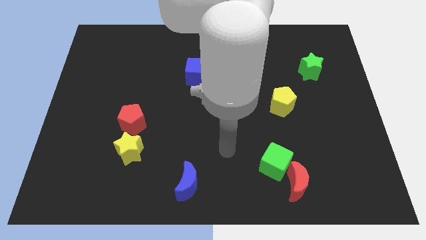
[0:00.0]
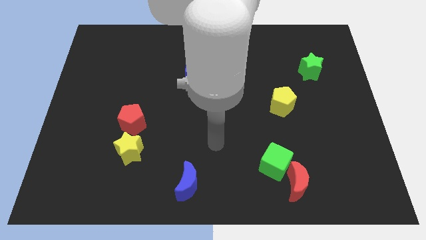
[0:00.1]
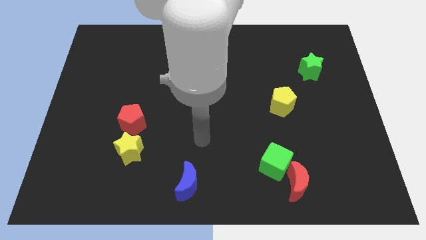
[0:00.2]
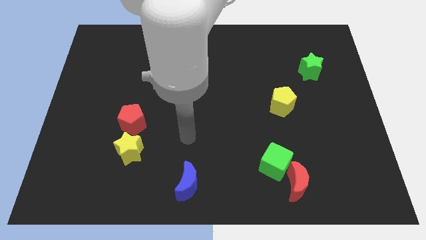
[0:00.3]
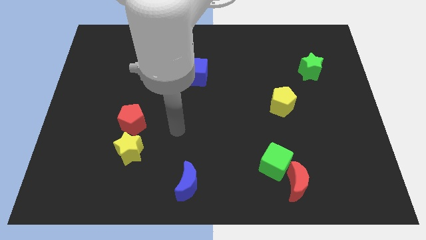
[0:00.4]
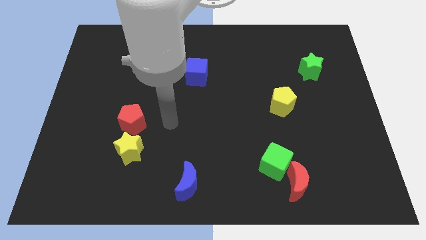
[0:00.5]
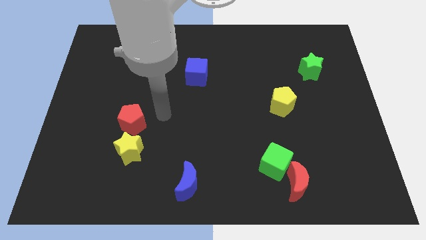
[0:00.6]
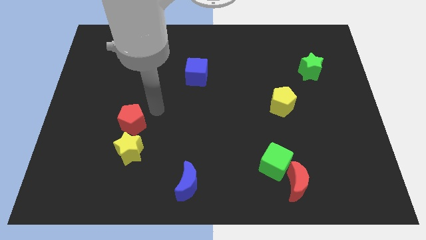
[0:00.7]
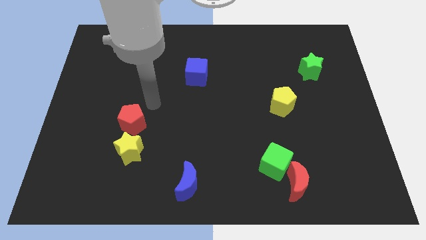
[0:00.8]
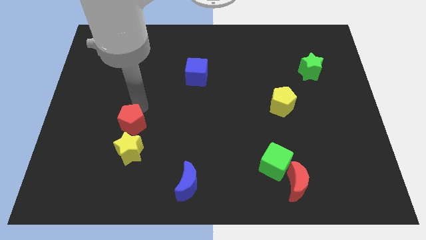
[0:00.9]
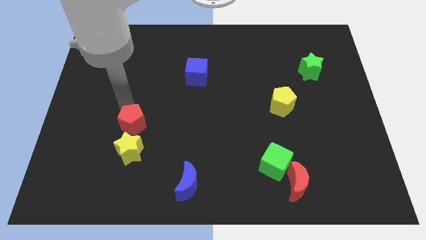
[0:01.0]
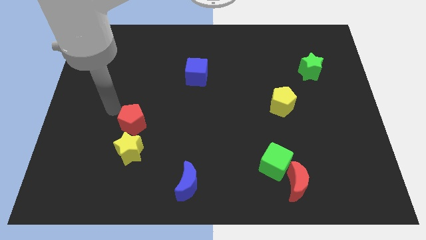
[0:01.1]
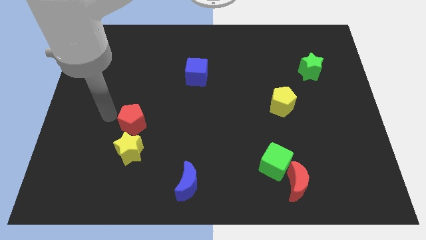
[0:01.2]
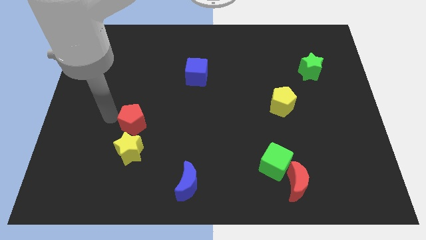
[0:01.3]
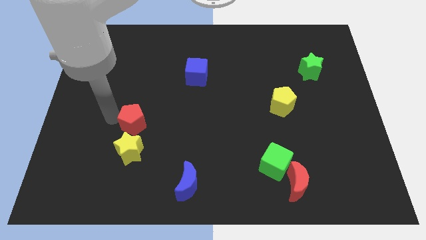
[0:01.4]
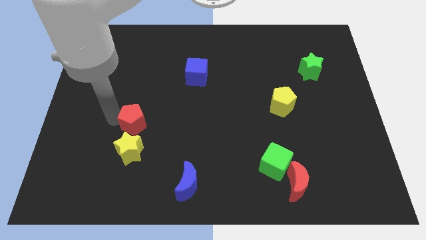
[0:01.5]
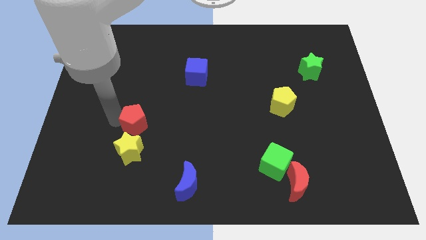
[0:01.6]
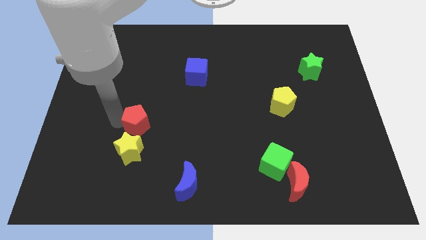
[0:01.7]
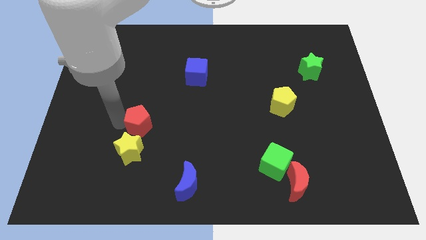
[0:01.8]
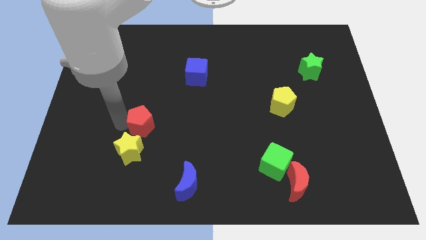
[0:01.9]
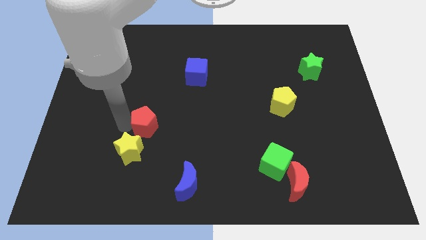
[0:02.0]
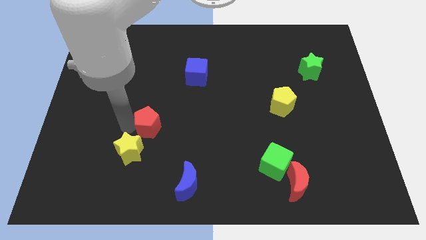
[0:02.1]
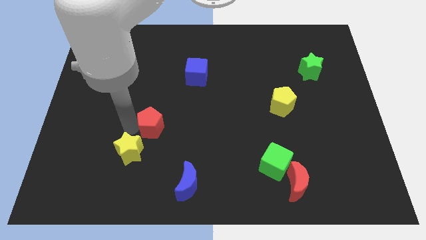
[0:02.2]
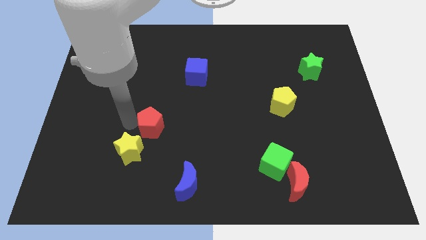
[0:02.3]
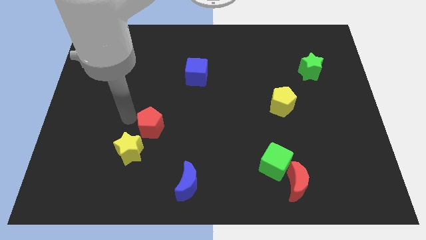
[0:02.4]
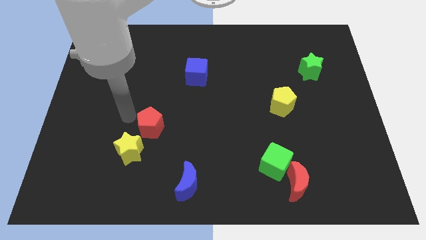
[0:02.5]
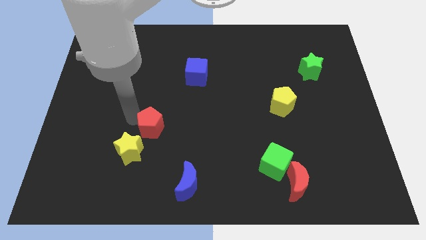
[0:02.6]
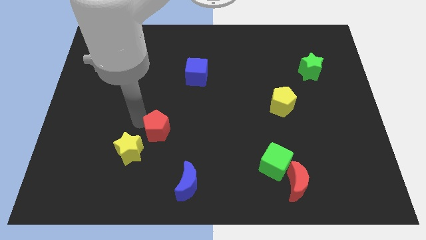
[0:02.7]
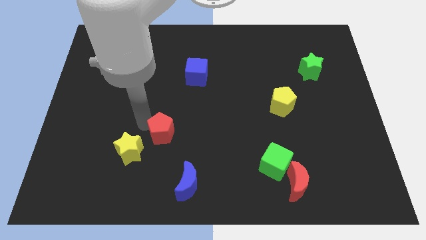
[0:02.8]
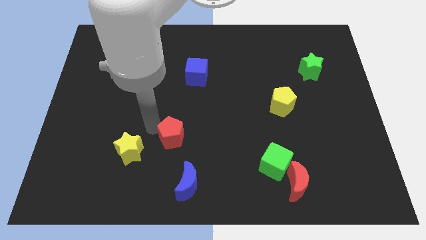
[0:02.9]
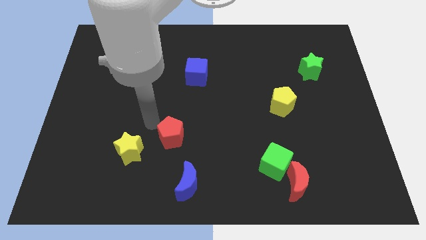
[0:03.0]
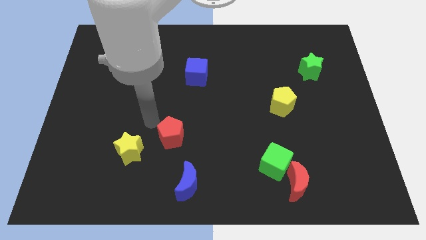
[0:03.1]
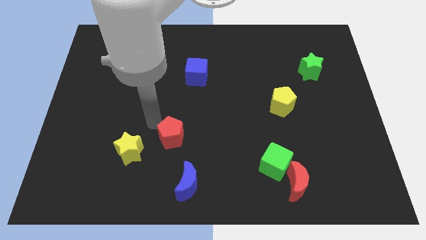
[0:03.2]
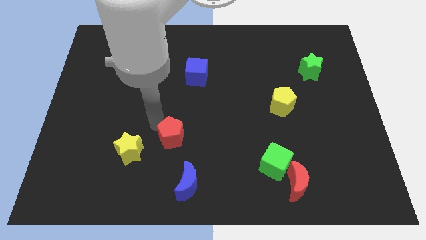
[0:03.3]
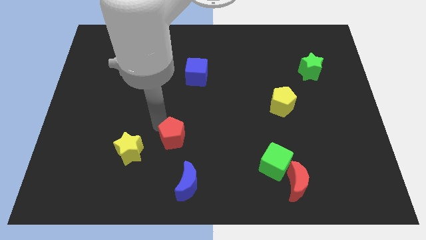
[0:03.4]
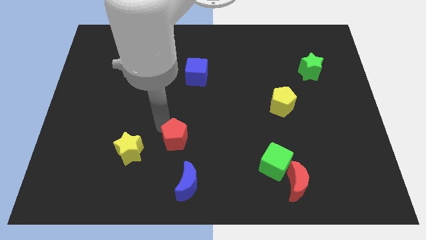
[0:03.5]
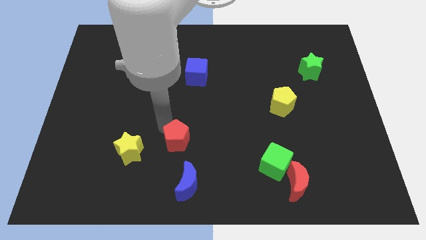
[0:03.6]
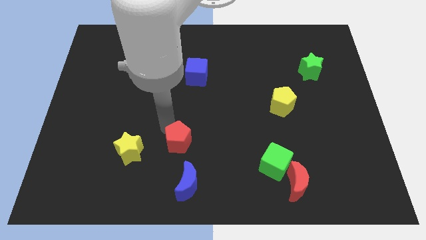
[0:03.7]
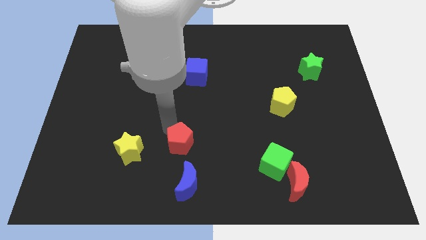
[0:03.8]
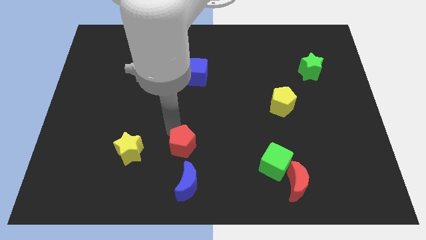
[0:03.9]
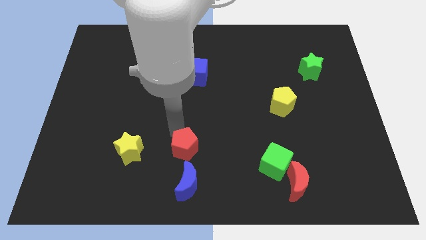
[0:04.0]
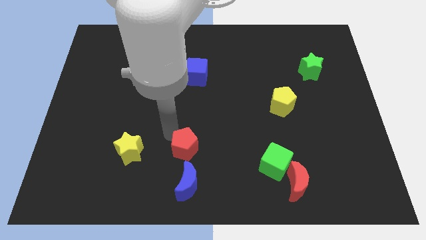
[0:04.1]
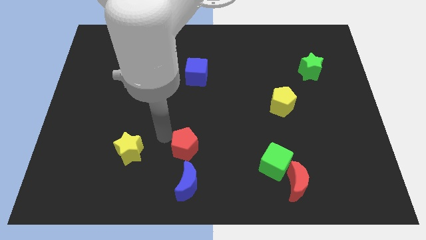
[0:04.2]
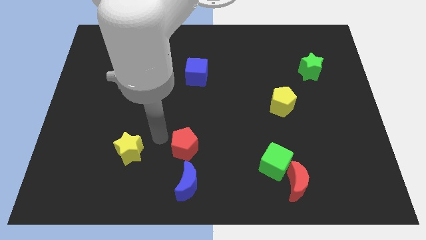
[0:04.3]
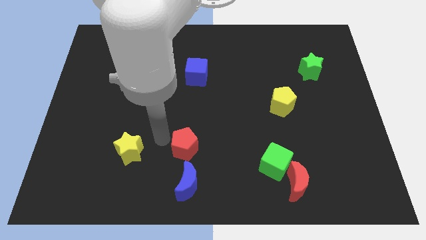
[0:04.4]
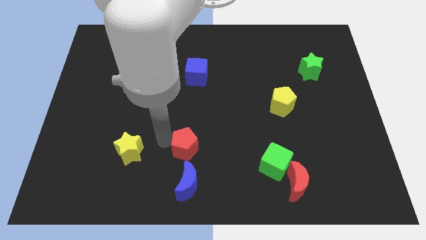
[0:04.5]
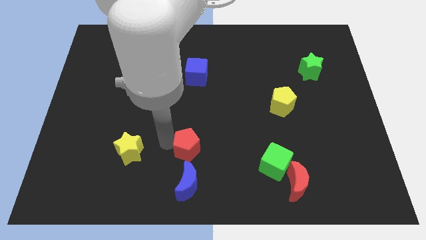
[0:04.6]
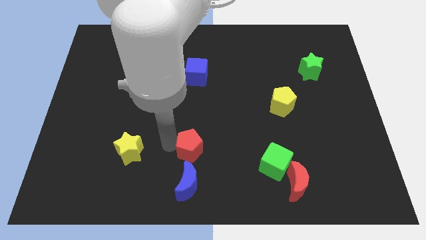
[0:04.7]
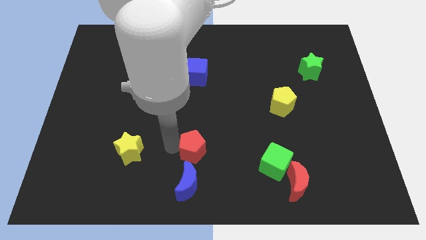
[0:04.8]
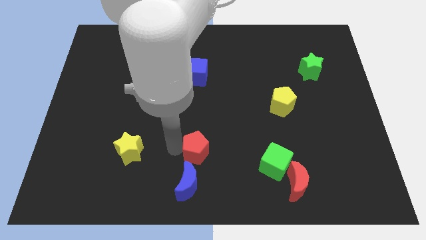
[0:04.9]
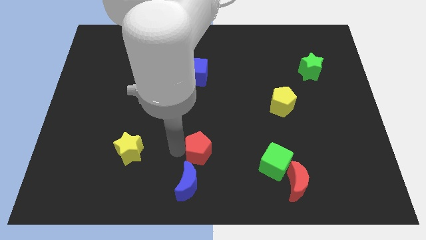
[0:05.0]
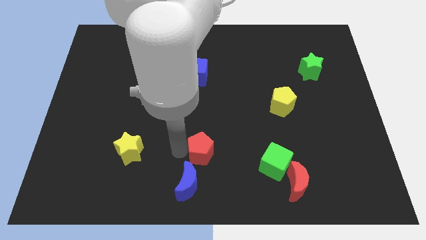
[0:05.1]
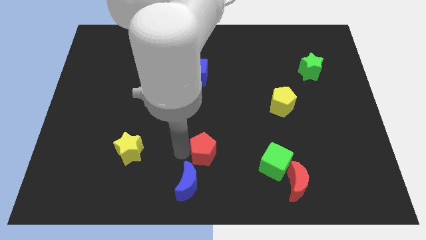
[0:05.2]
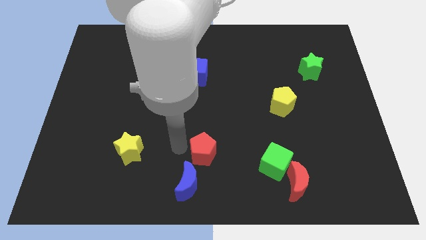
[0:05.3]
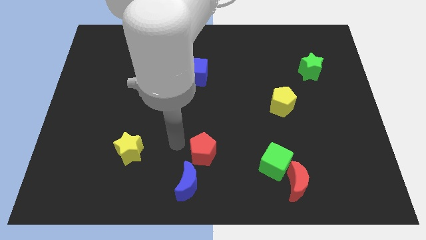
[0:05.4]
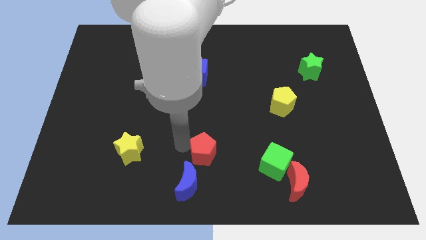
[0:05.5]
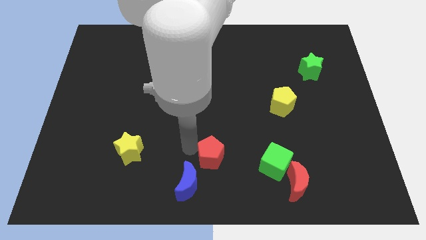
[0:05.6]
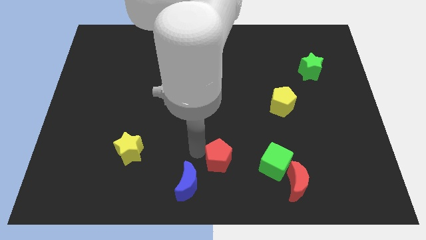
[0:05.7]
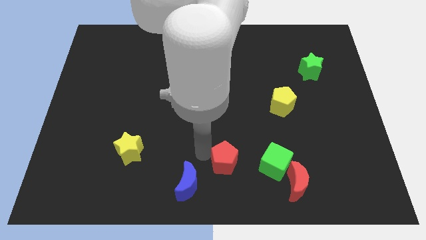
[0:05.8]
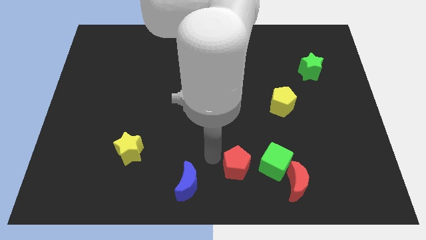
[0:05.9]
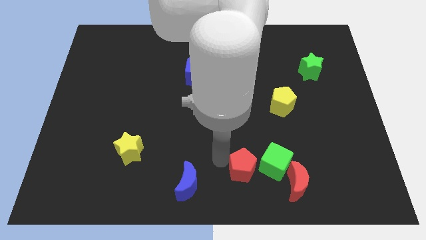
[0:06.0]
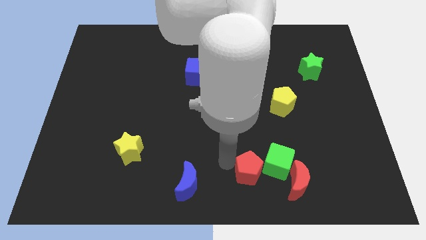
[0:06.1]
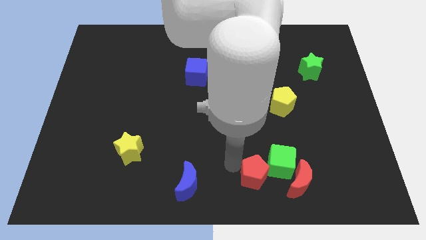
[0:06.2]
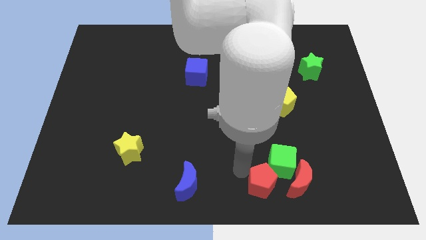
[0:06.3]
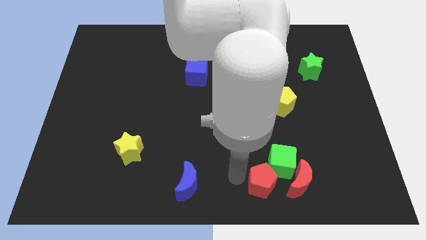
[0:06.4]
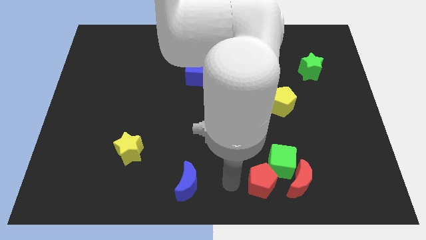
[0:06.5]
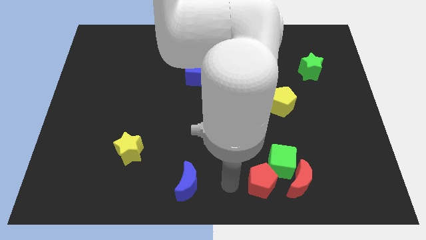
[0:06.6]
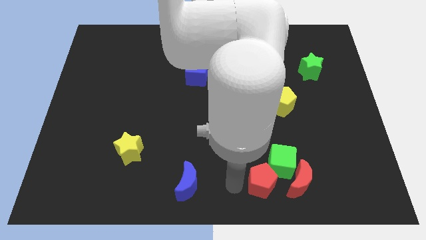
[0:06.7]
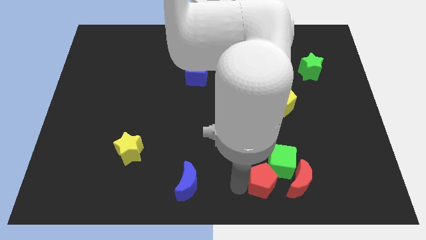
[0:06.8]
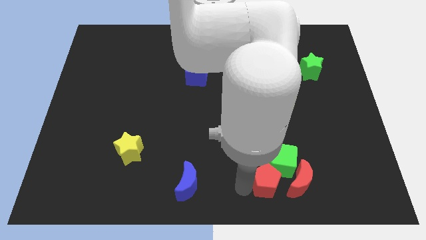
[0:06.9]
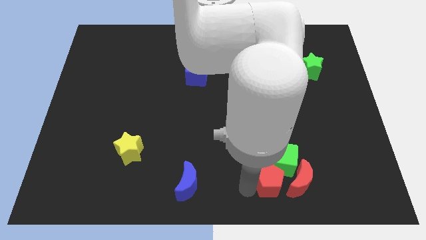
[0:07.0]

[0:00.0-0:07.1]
move the red pentagon to the red moon
